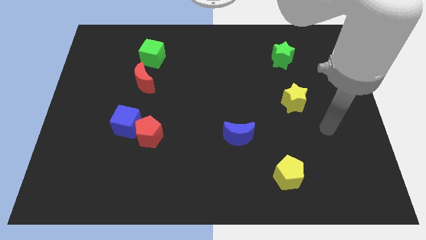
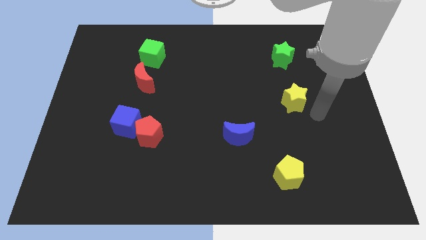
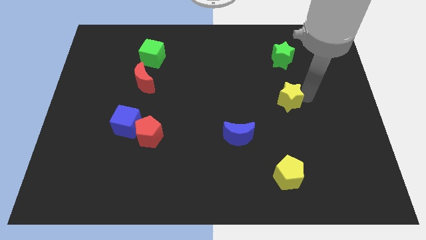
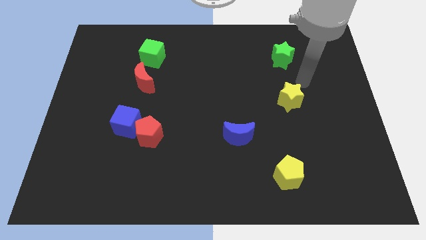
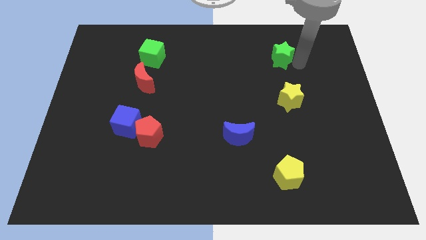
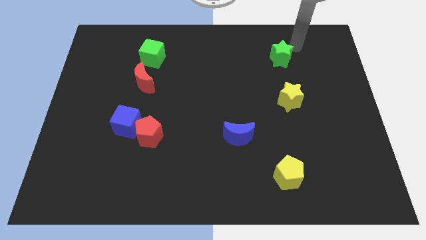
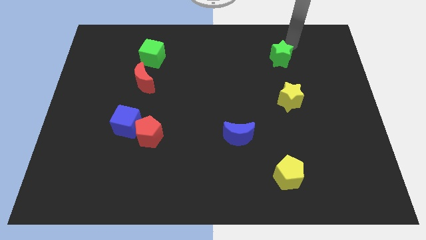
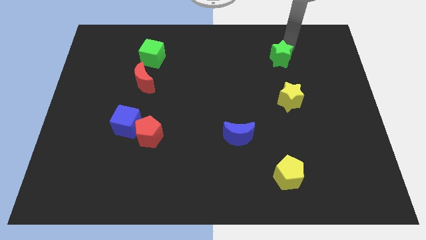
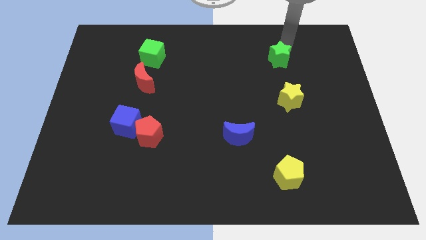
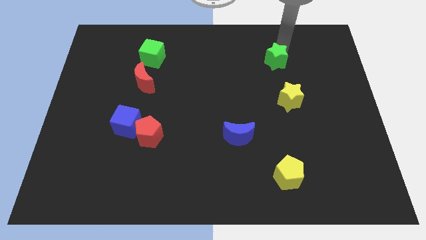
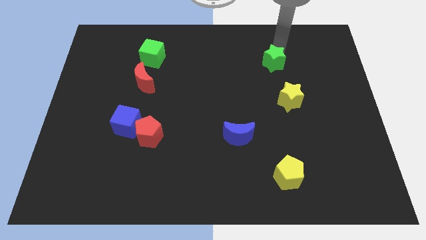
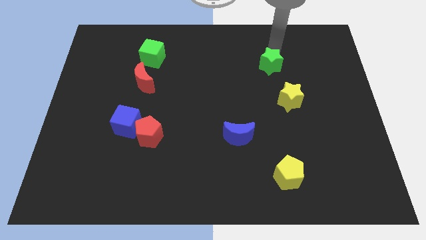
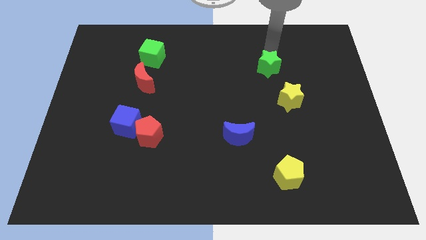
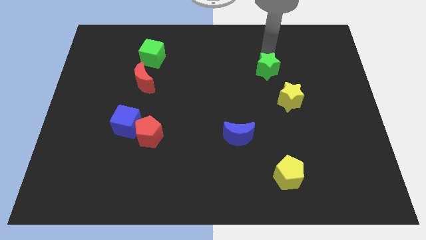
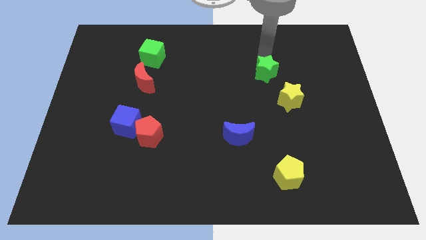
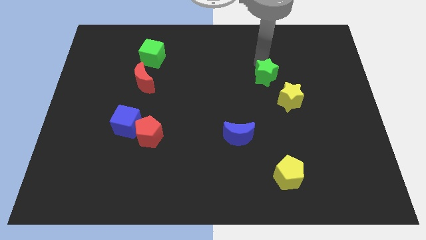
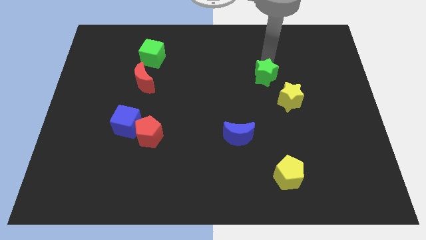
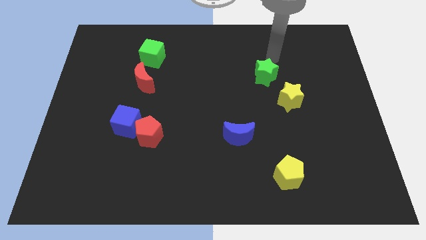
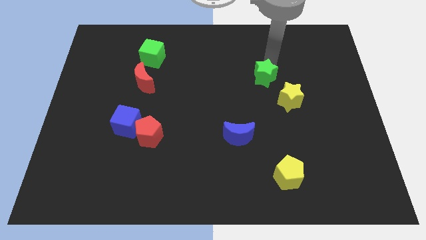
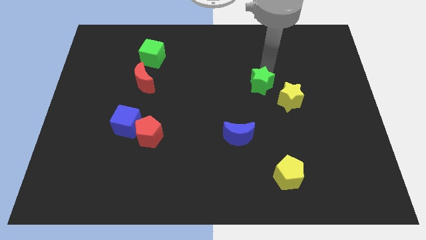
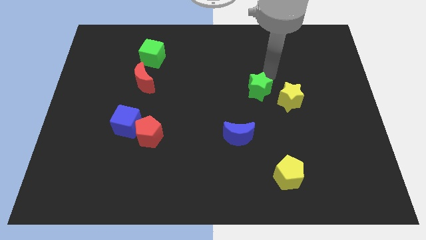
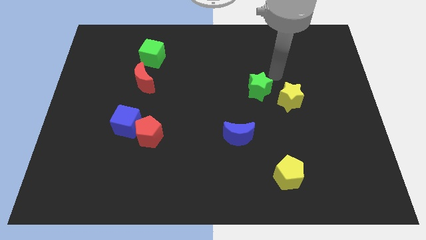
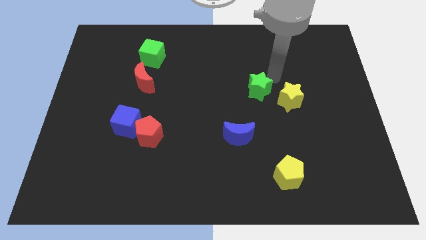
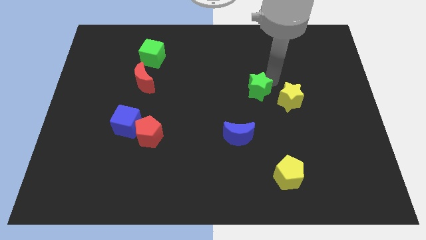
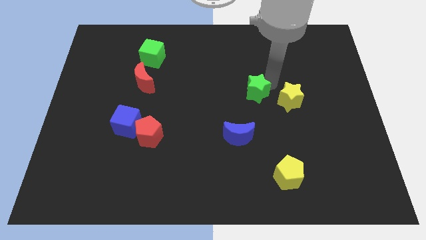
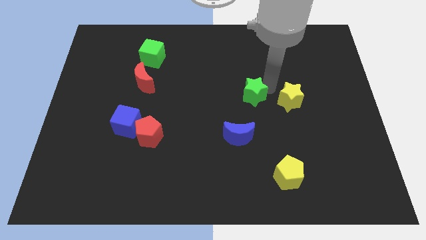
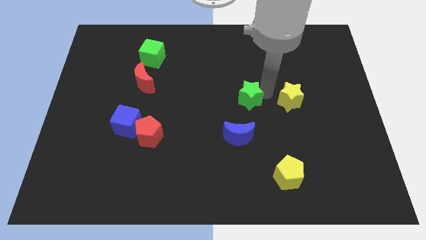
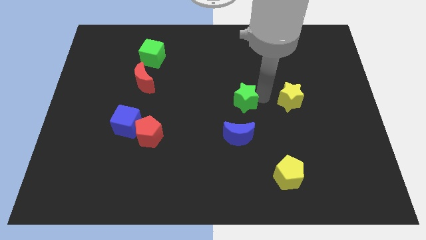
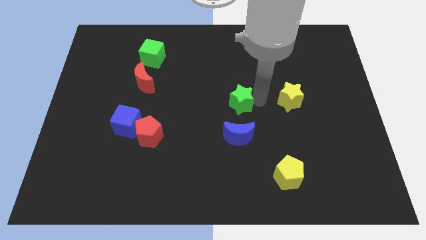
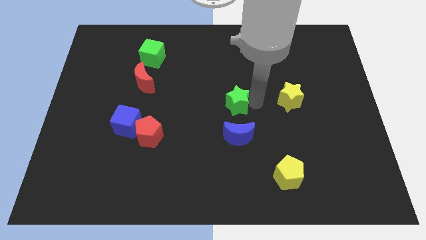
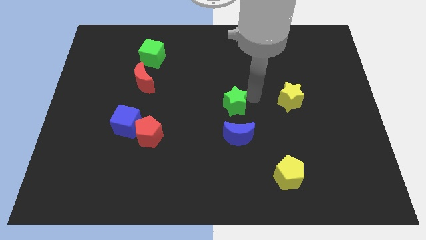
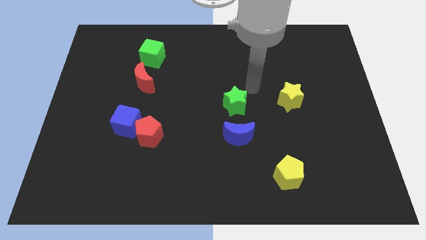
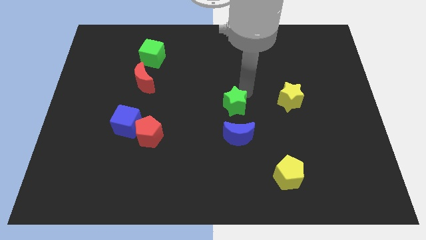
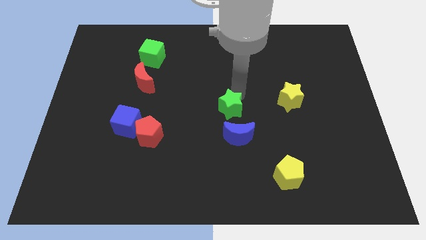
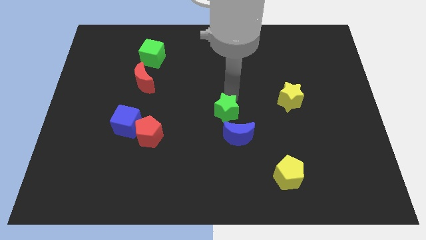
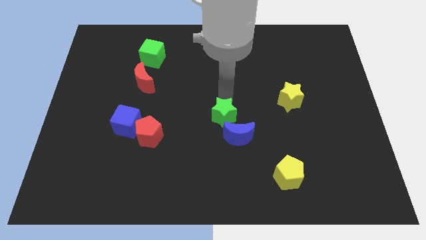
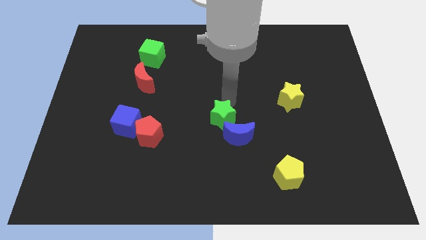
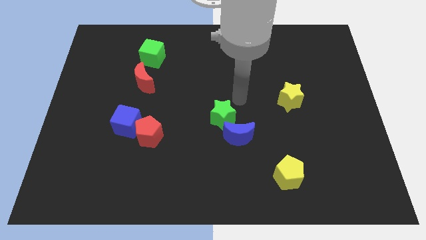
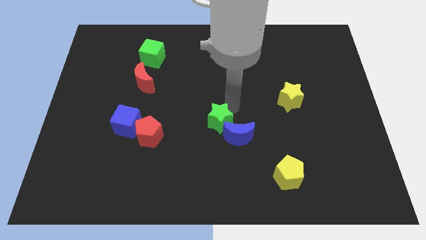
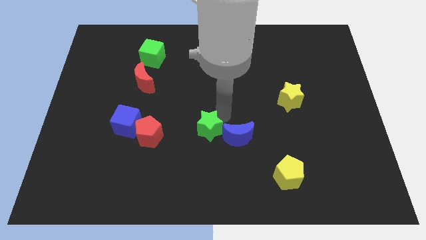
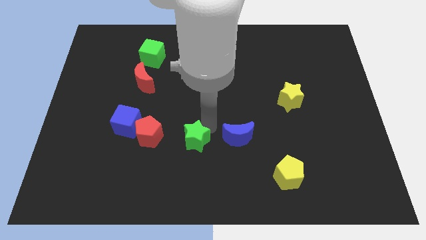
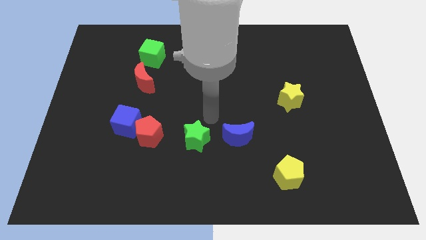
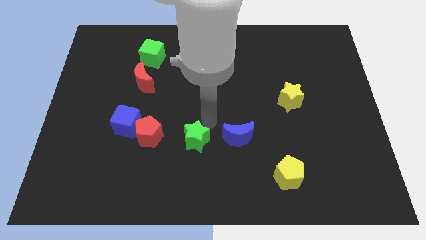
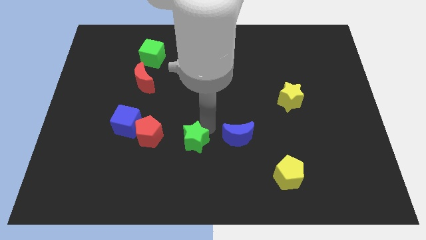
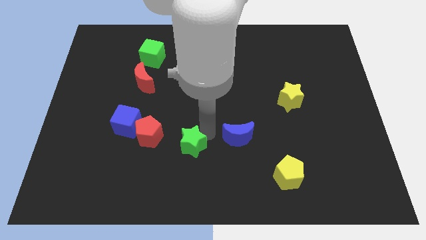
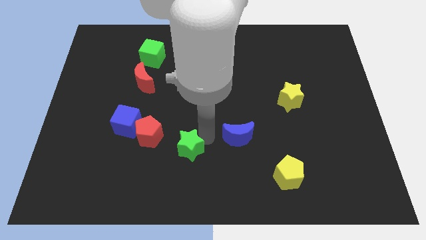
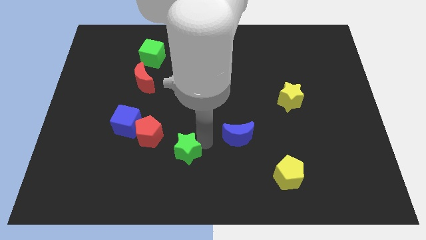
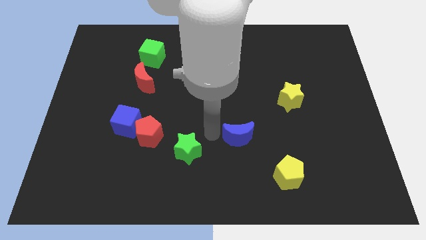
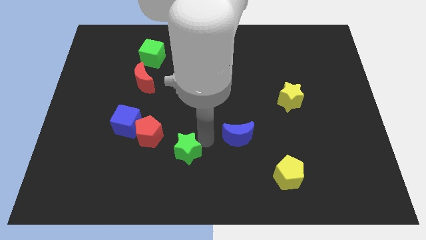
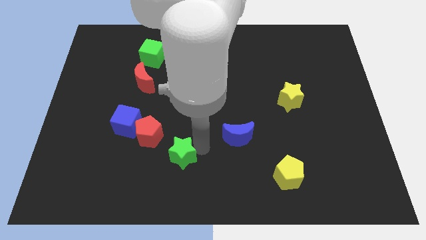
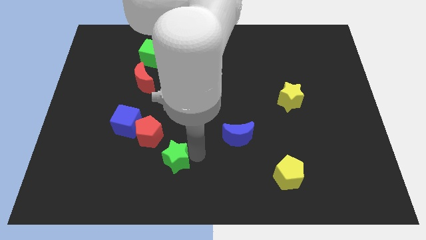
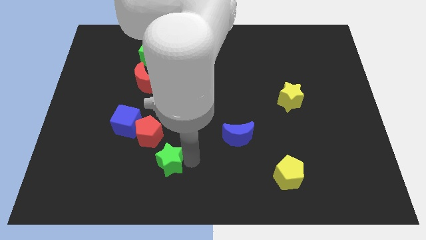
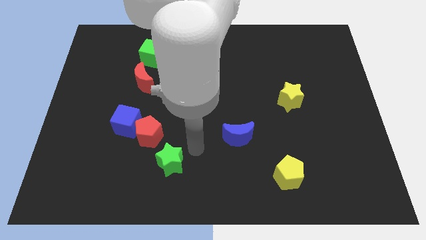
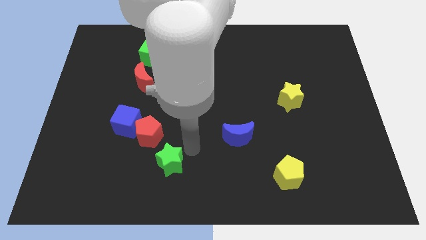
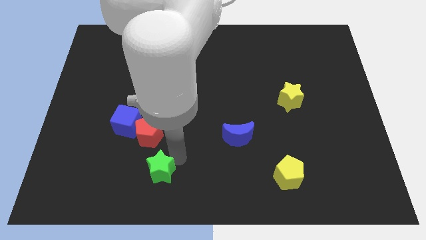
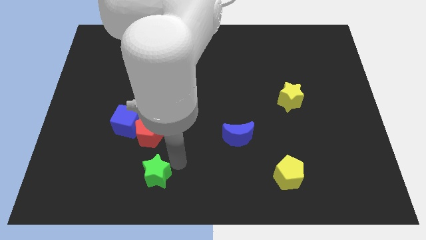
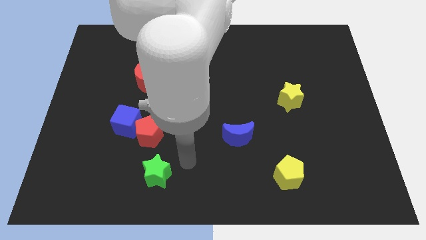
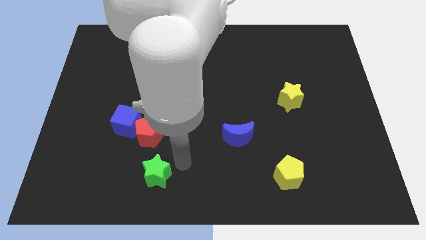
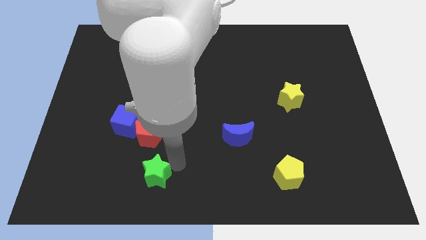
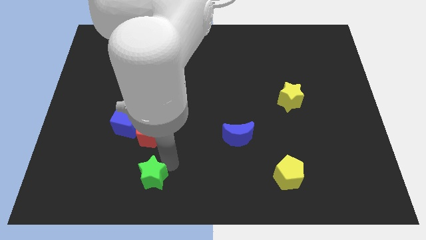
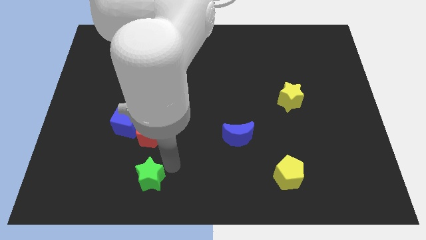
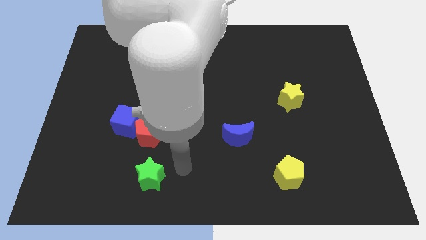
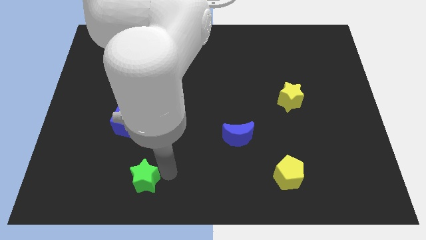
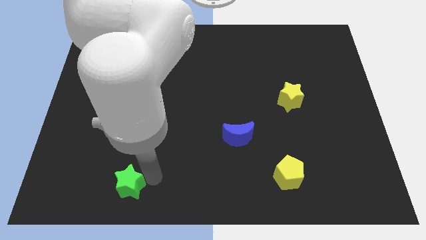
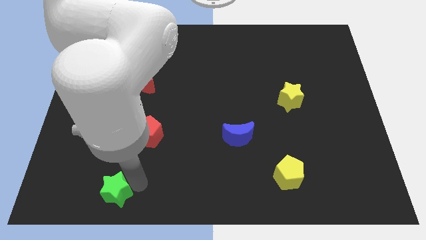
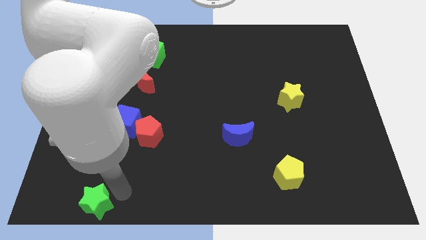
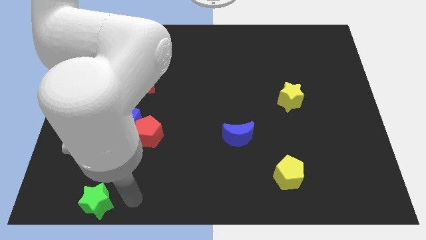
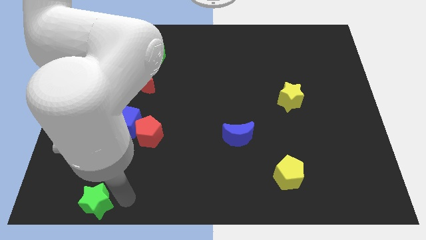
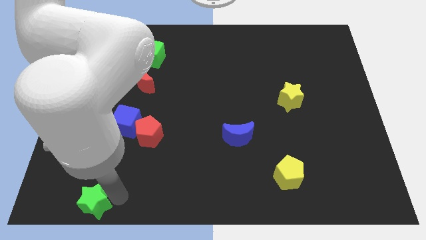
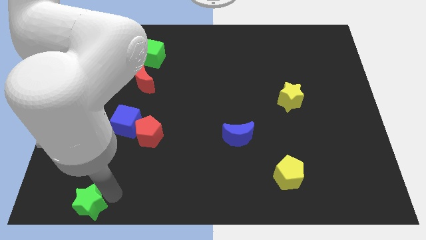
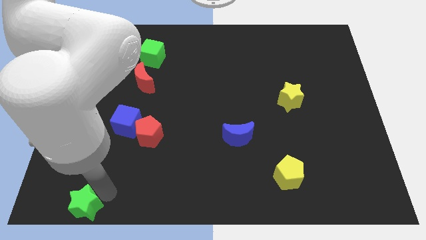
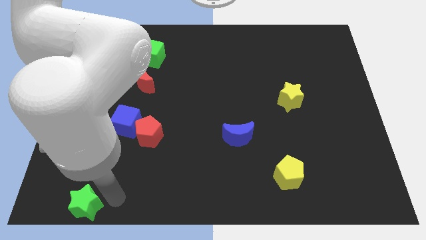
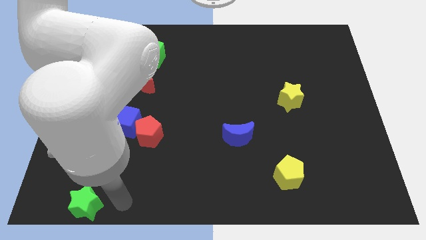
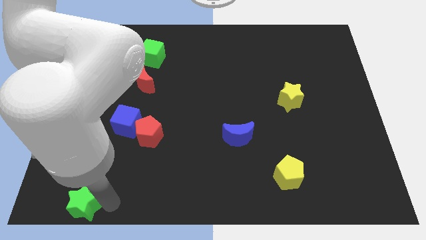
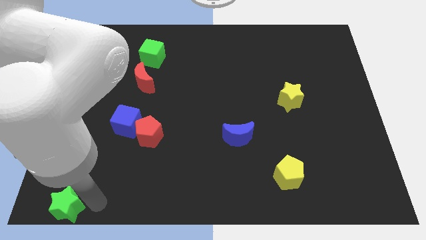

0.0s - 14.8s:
push the green star to the lower left corner
